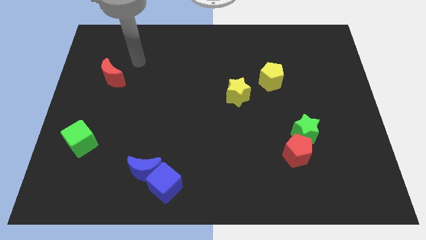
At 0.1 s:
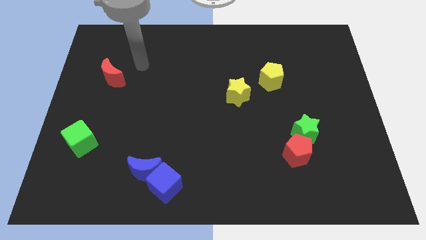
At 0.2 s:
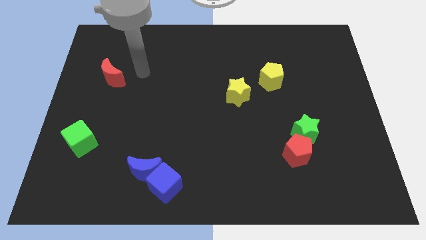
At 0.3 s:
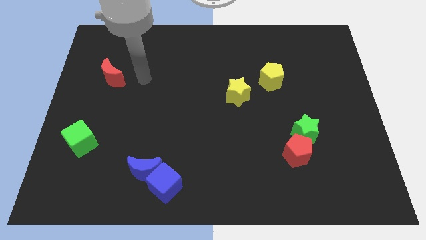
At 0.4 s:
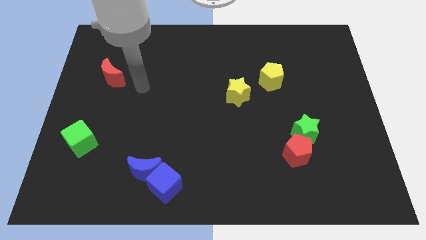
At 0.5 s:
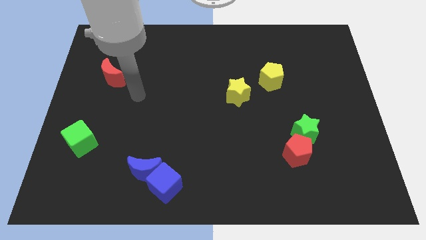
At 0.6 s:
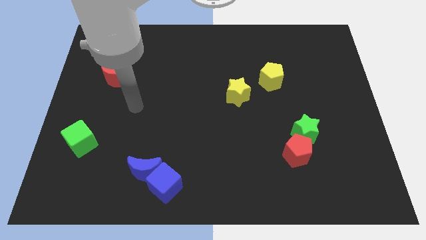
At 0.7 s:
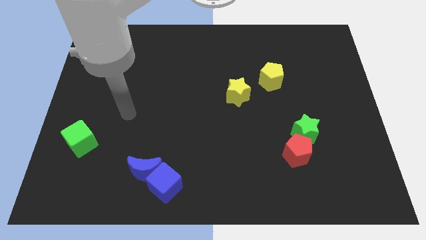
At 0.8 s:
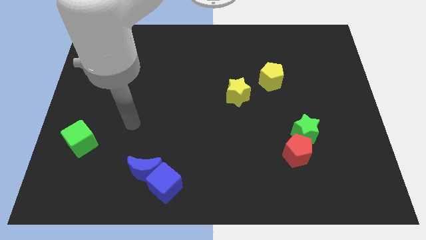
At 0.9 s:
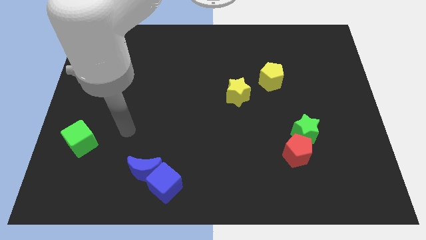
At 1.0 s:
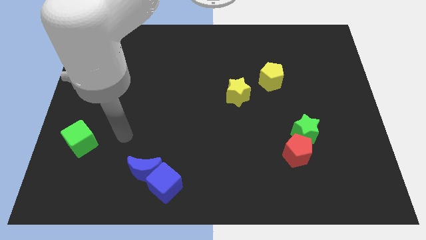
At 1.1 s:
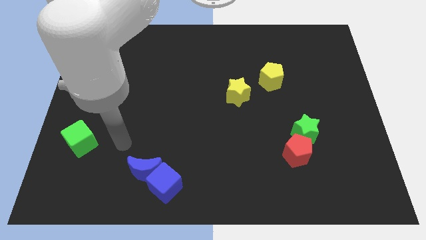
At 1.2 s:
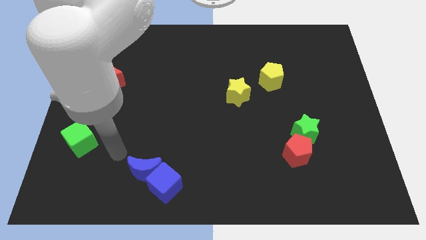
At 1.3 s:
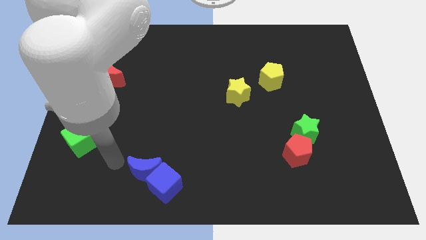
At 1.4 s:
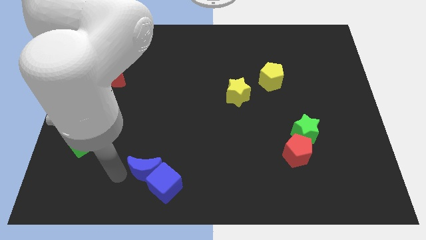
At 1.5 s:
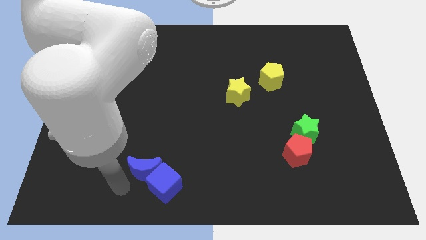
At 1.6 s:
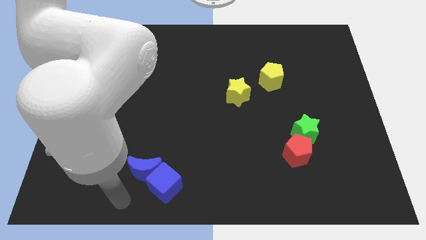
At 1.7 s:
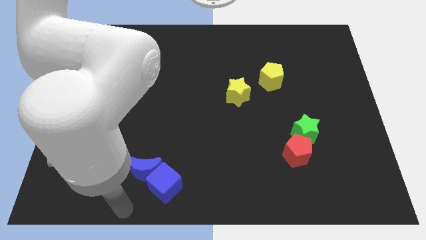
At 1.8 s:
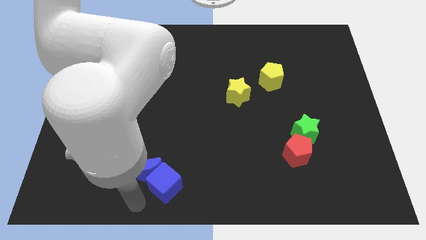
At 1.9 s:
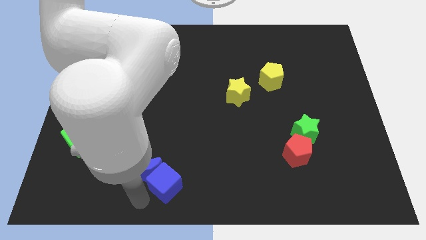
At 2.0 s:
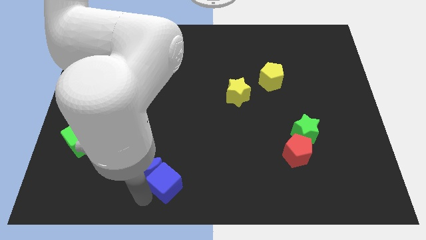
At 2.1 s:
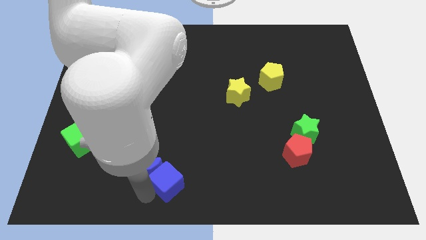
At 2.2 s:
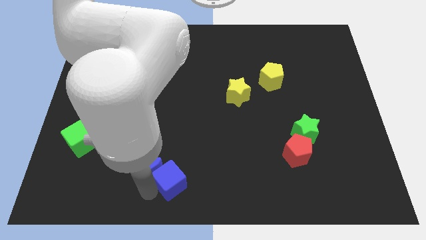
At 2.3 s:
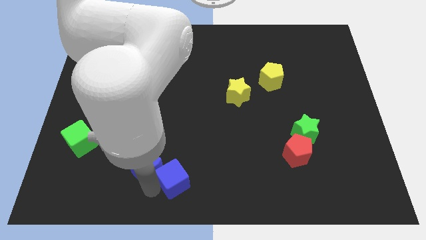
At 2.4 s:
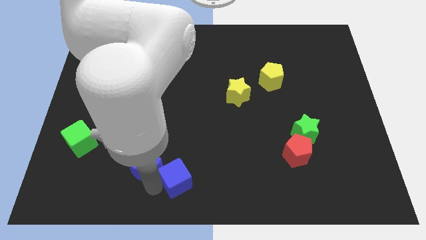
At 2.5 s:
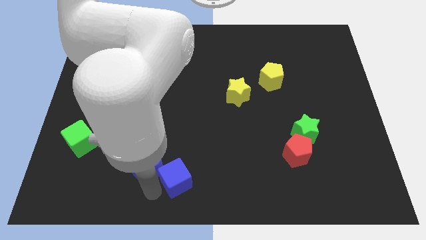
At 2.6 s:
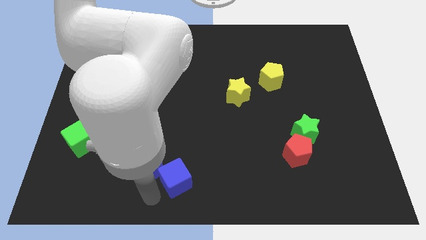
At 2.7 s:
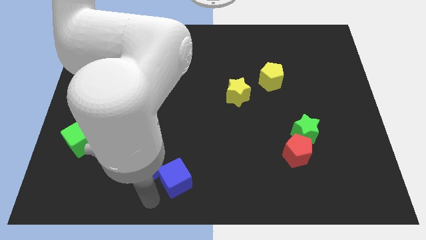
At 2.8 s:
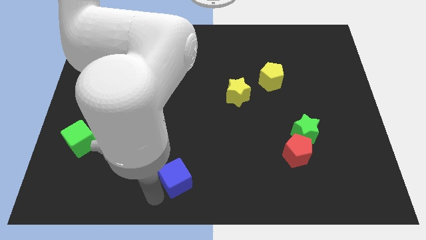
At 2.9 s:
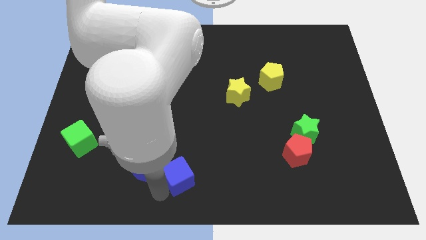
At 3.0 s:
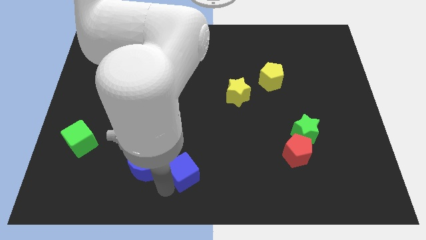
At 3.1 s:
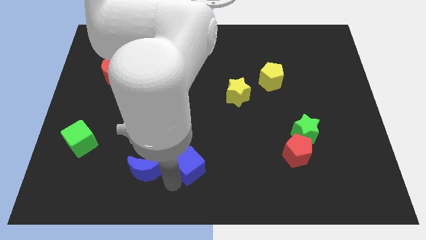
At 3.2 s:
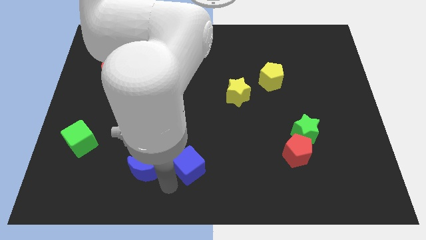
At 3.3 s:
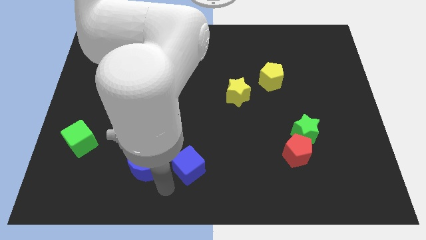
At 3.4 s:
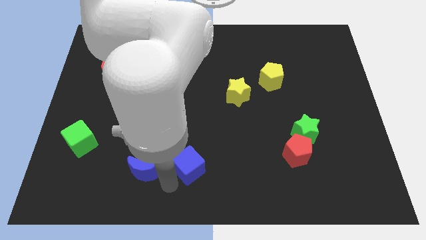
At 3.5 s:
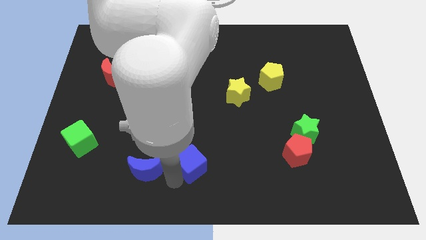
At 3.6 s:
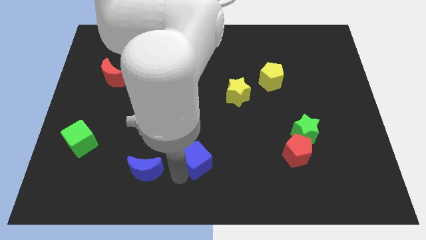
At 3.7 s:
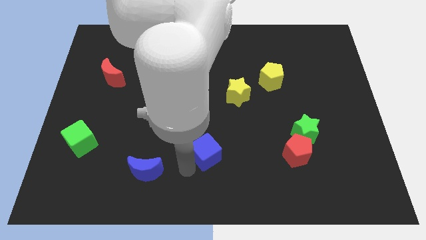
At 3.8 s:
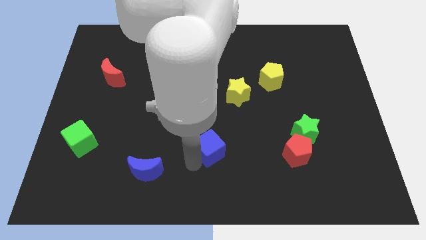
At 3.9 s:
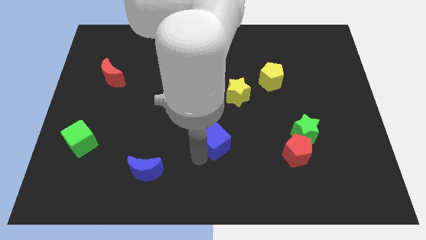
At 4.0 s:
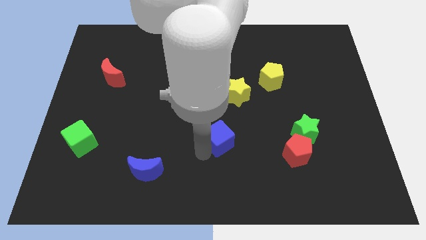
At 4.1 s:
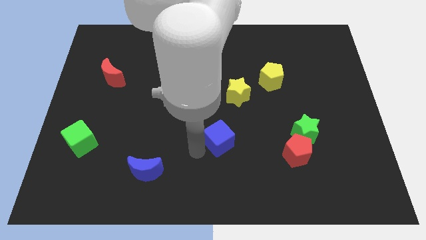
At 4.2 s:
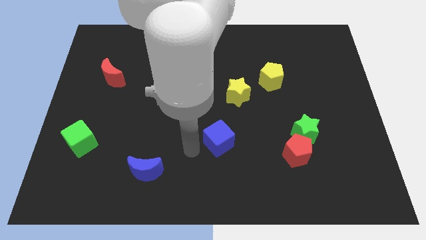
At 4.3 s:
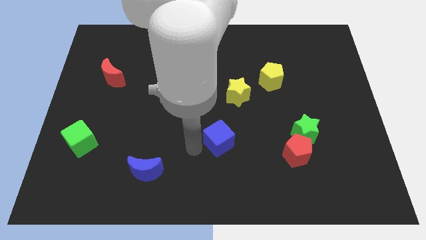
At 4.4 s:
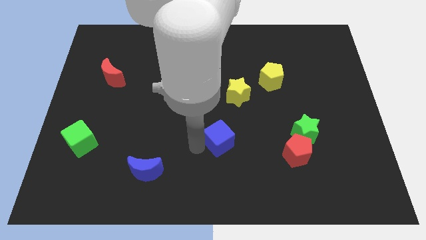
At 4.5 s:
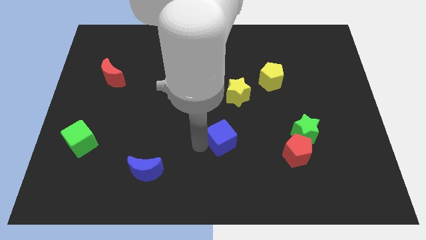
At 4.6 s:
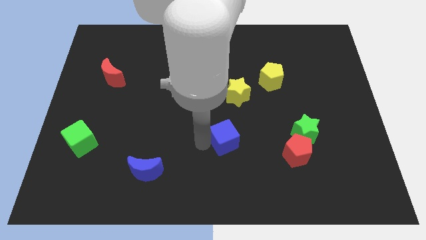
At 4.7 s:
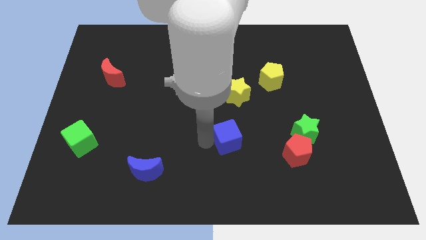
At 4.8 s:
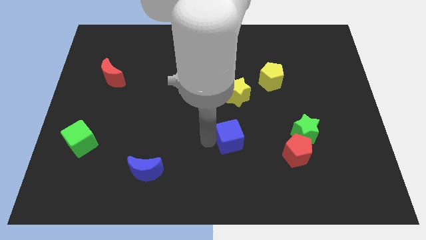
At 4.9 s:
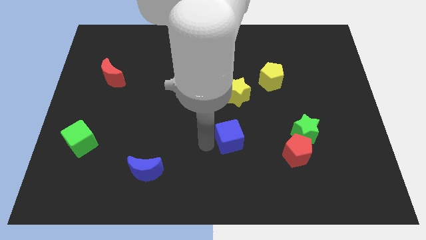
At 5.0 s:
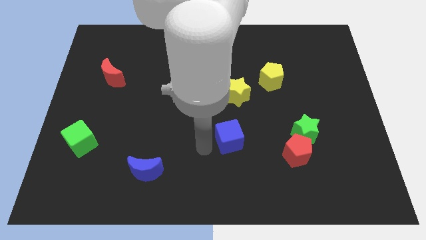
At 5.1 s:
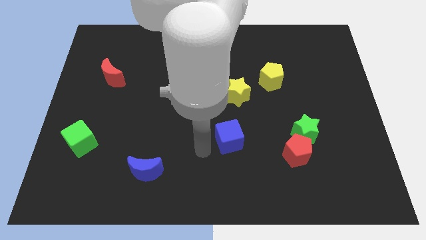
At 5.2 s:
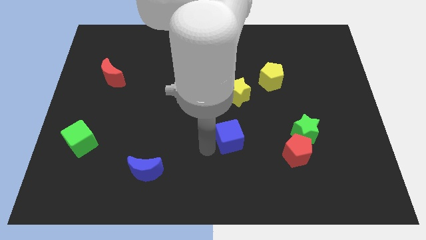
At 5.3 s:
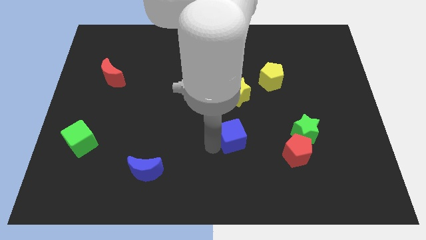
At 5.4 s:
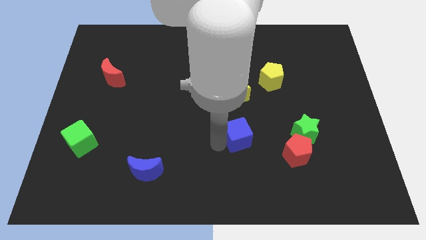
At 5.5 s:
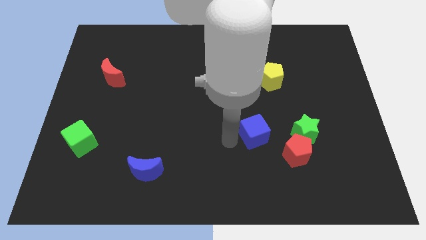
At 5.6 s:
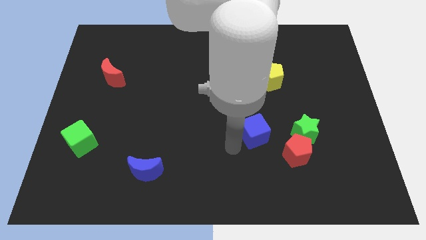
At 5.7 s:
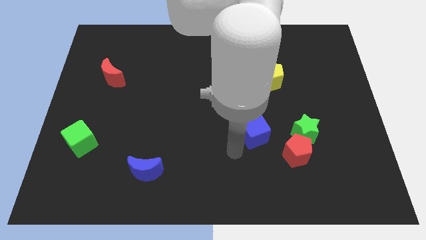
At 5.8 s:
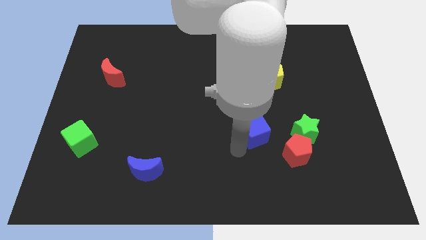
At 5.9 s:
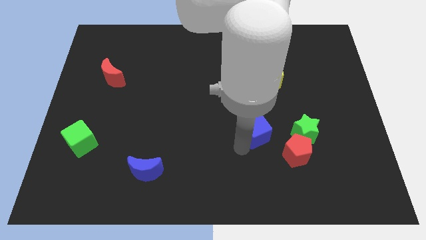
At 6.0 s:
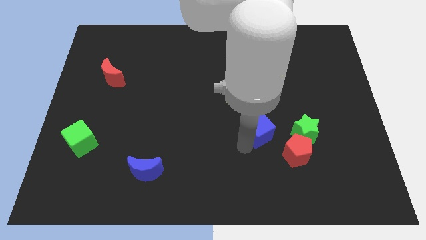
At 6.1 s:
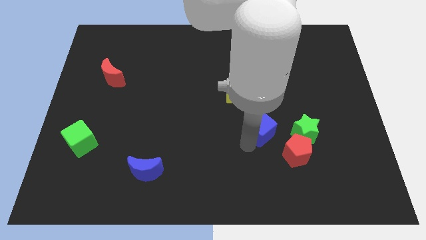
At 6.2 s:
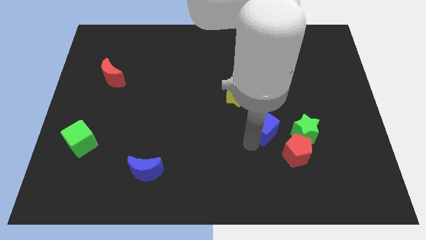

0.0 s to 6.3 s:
put the blue cube to the bottom of the yellow pentagon

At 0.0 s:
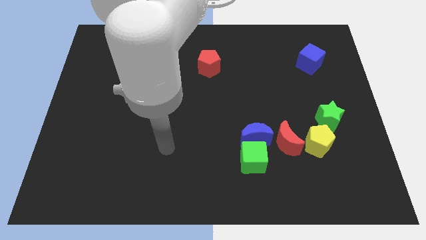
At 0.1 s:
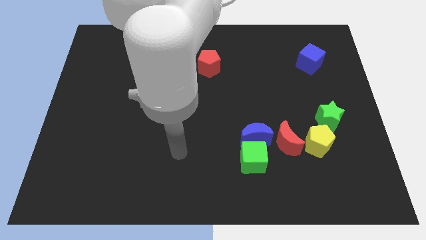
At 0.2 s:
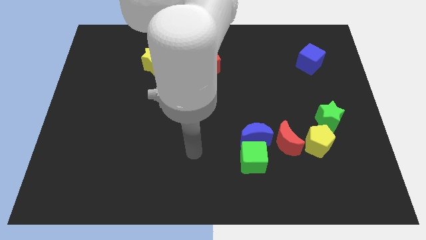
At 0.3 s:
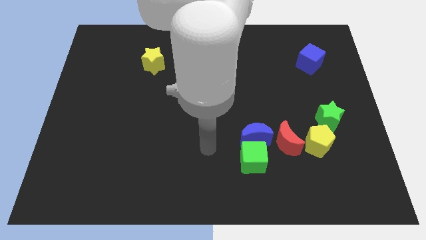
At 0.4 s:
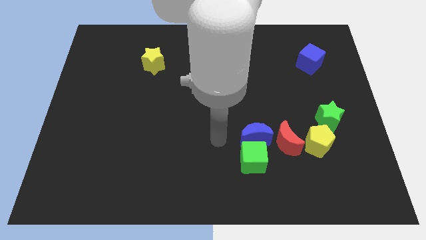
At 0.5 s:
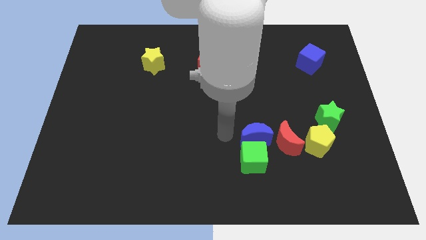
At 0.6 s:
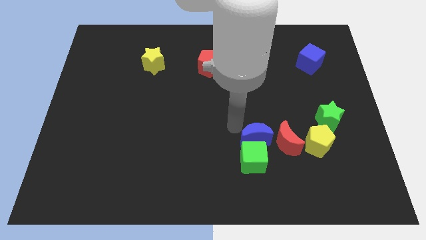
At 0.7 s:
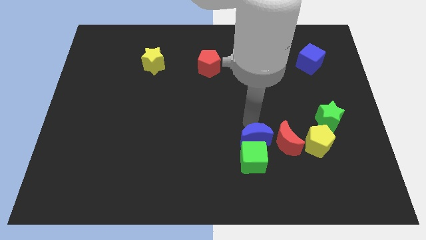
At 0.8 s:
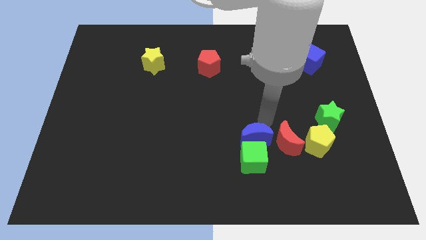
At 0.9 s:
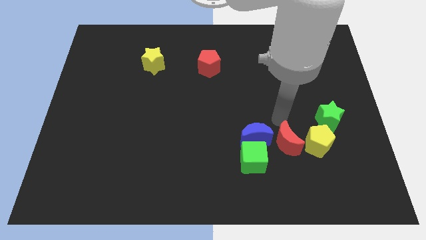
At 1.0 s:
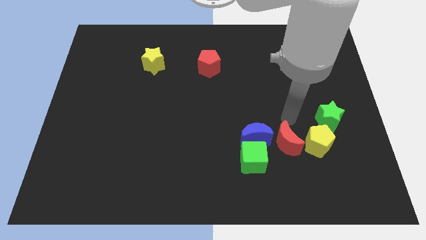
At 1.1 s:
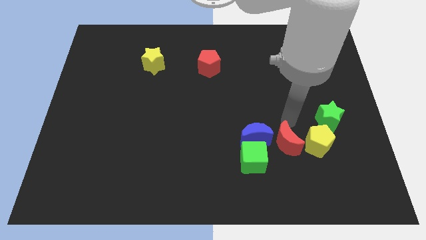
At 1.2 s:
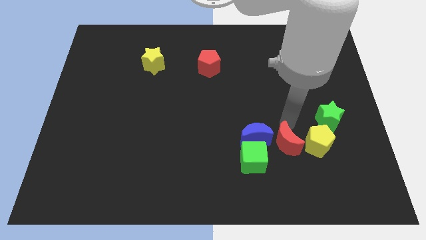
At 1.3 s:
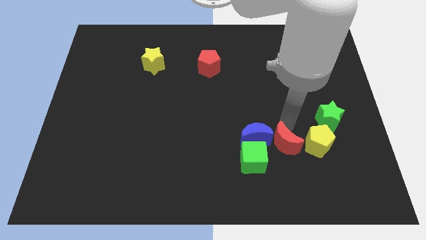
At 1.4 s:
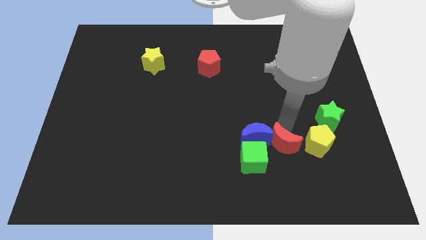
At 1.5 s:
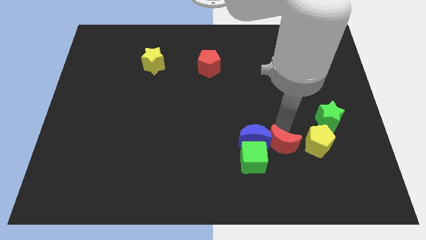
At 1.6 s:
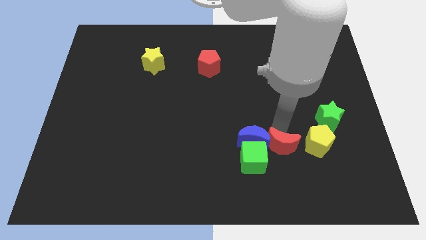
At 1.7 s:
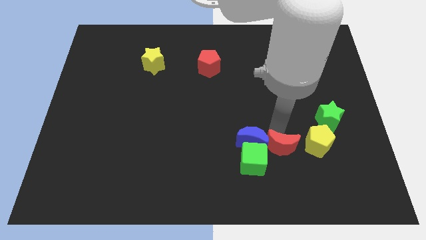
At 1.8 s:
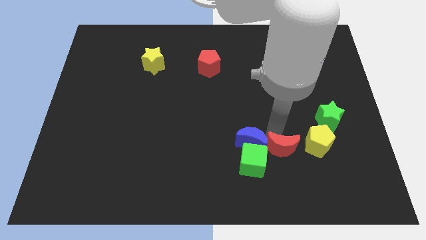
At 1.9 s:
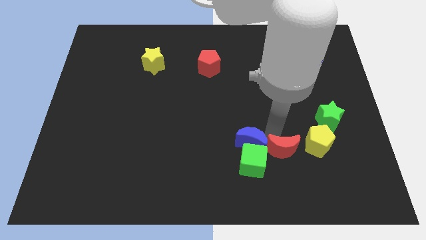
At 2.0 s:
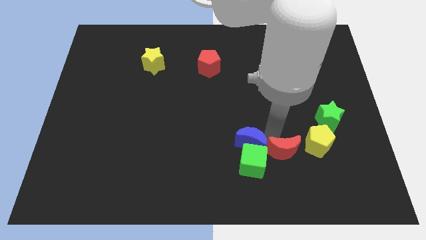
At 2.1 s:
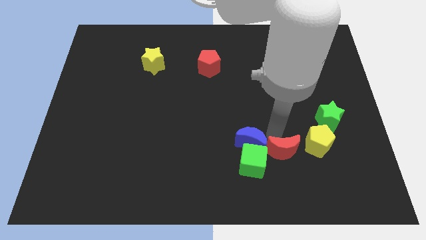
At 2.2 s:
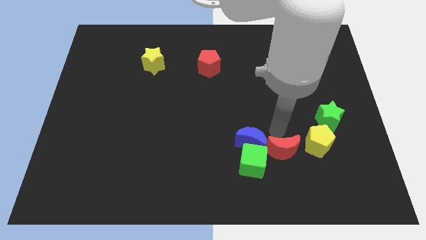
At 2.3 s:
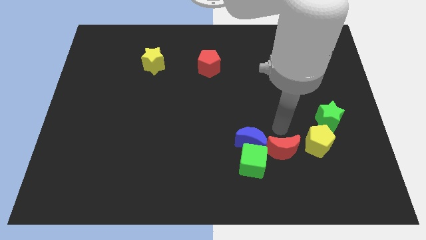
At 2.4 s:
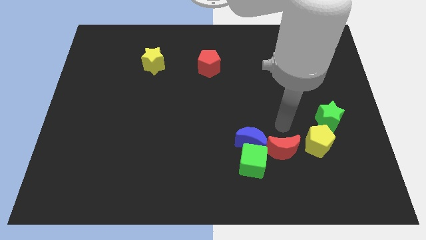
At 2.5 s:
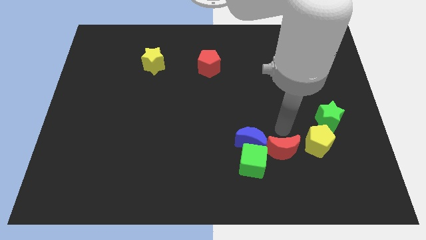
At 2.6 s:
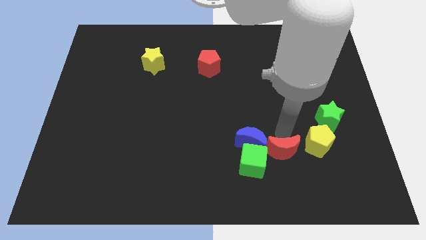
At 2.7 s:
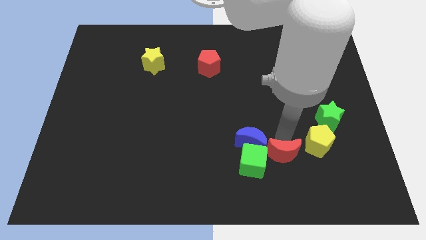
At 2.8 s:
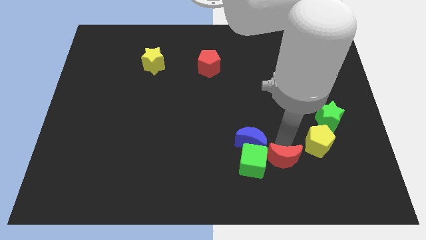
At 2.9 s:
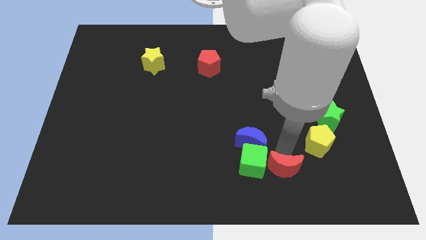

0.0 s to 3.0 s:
put the red moon diagonally down and to the right of the green cube
